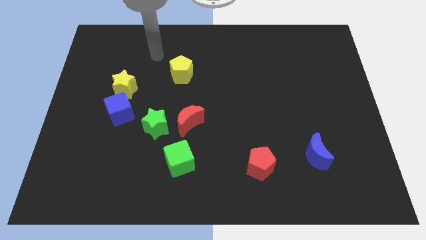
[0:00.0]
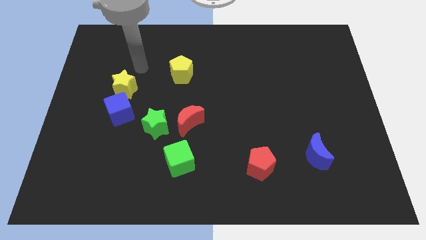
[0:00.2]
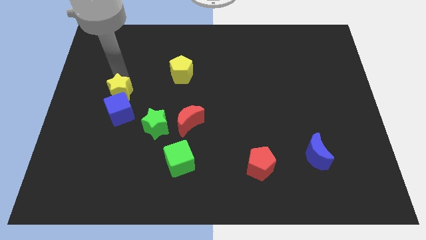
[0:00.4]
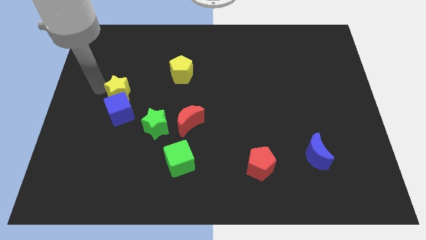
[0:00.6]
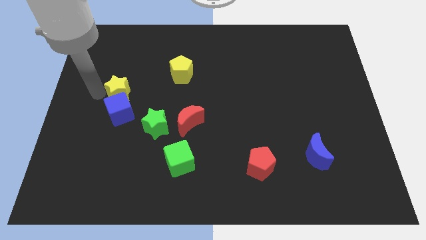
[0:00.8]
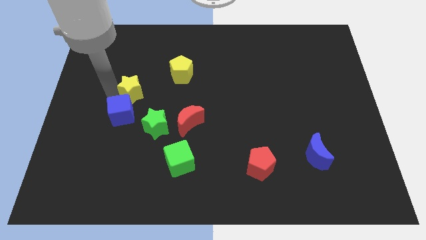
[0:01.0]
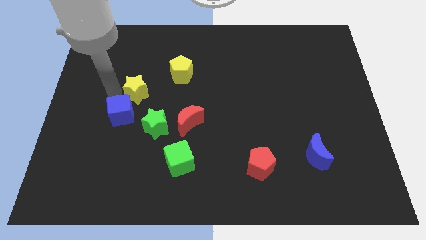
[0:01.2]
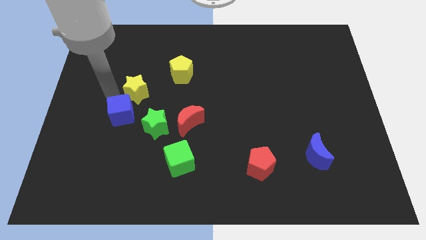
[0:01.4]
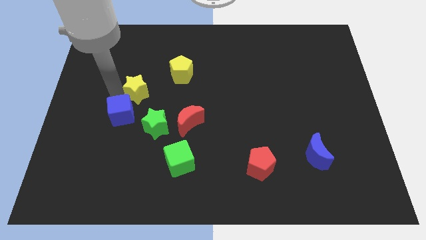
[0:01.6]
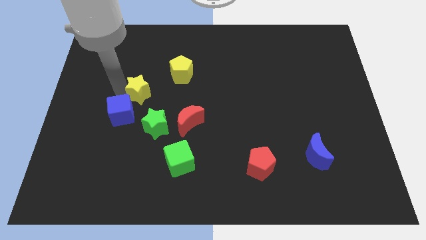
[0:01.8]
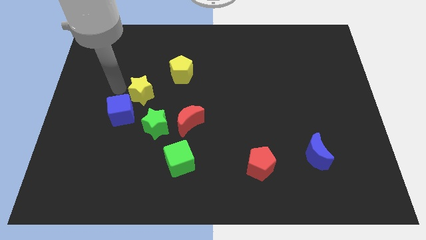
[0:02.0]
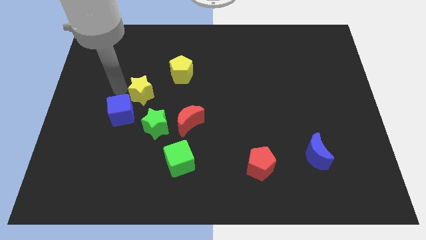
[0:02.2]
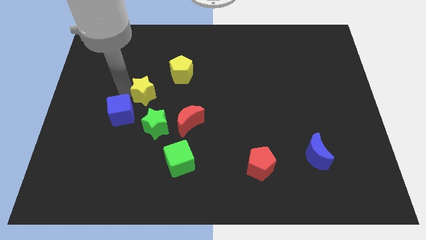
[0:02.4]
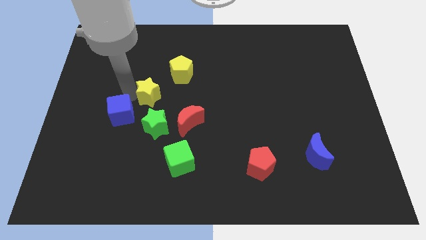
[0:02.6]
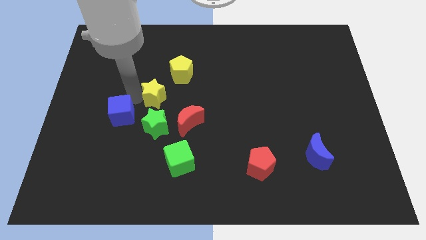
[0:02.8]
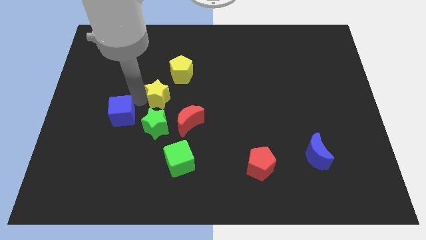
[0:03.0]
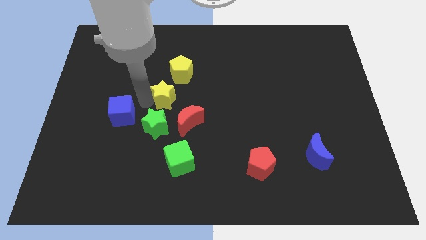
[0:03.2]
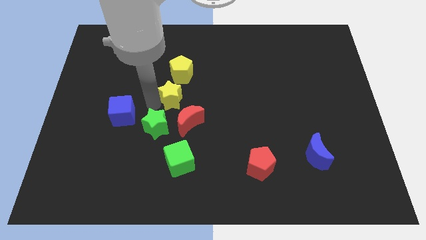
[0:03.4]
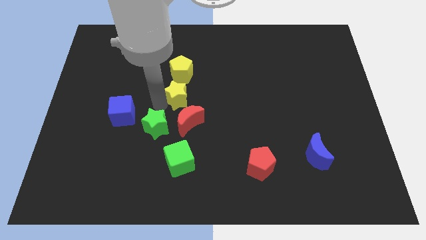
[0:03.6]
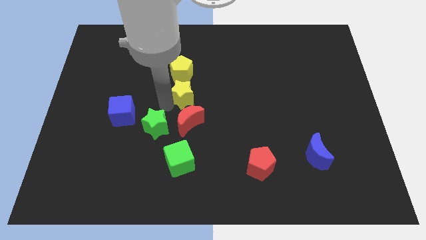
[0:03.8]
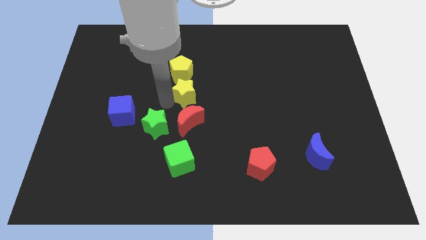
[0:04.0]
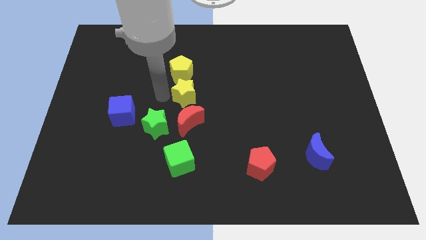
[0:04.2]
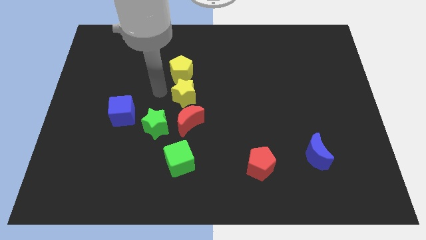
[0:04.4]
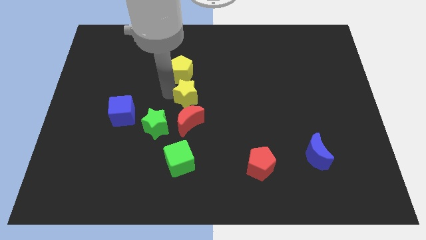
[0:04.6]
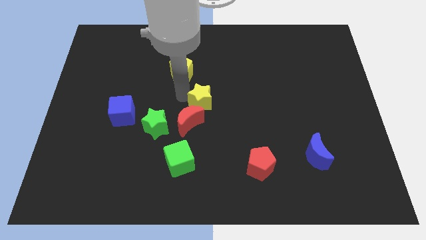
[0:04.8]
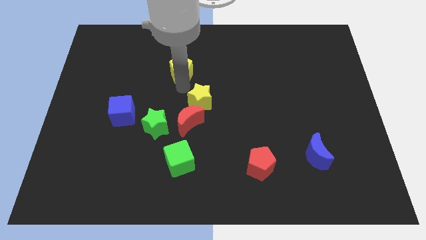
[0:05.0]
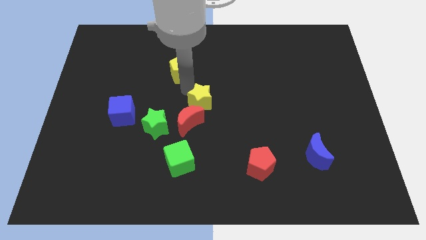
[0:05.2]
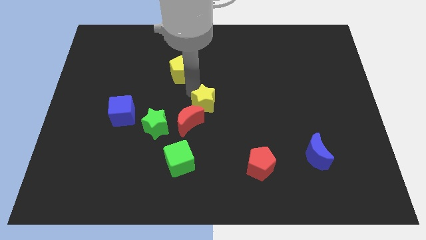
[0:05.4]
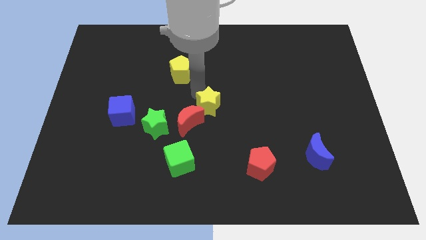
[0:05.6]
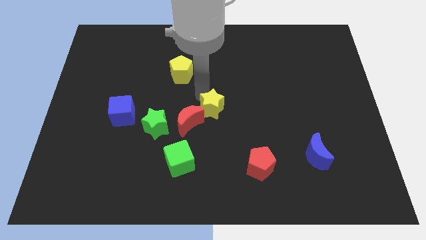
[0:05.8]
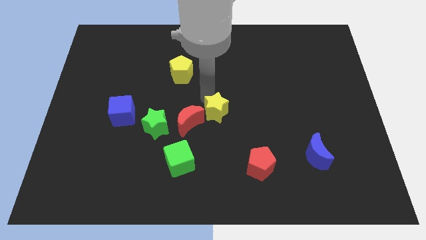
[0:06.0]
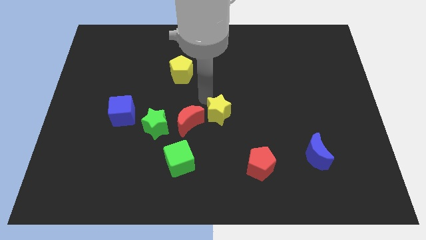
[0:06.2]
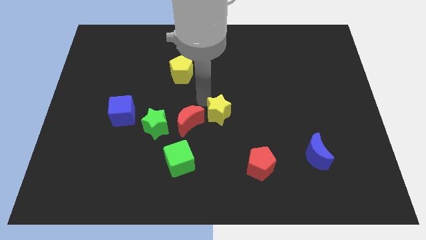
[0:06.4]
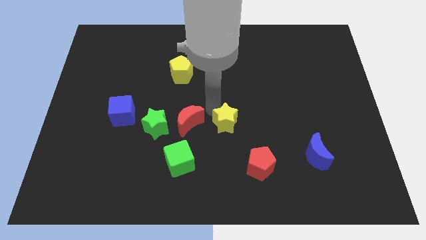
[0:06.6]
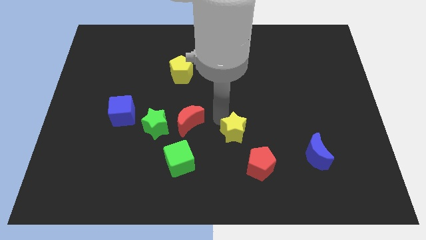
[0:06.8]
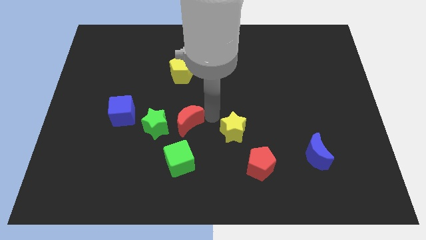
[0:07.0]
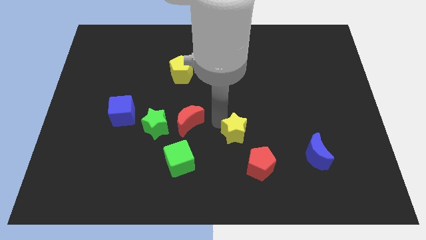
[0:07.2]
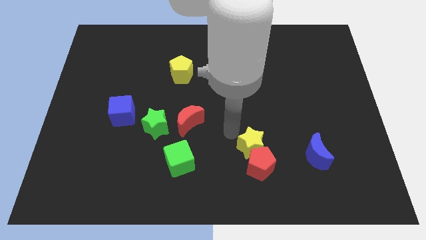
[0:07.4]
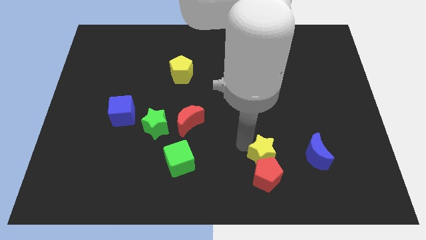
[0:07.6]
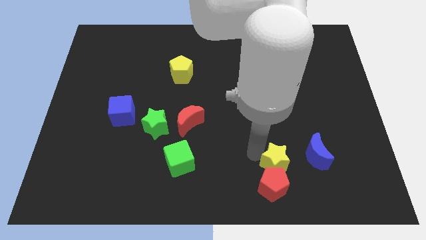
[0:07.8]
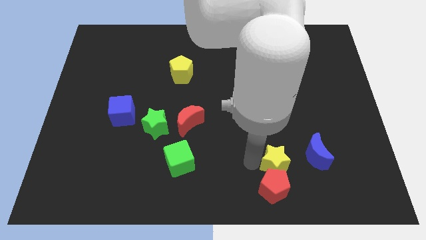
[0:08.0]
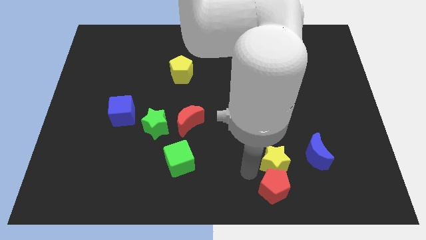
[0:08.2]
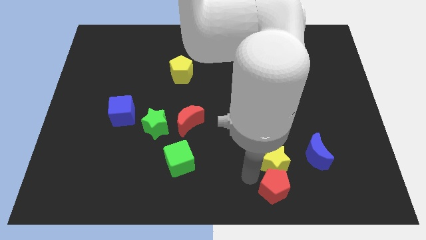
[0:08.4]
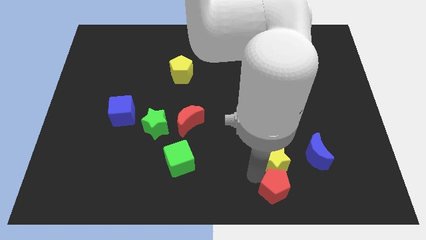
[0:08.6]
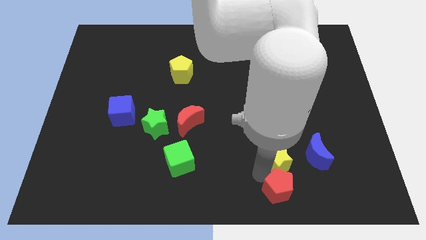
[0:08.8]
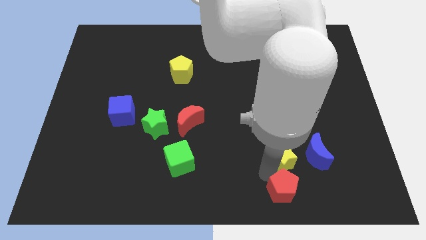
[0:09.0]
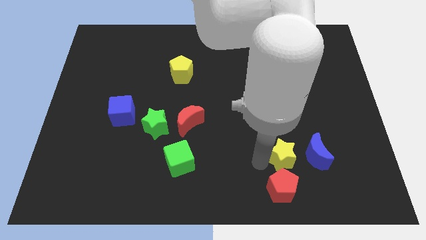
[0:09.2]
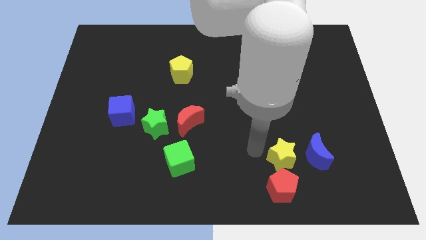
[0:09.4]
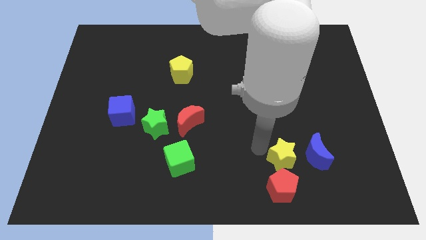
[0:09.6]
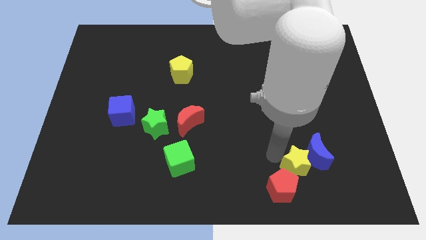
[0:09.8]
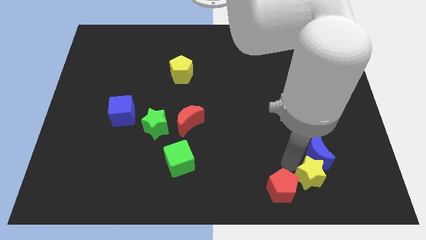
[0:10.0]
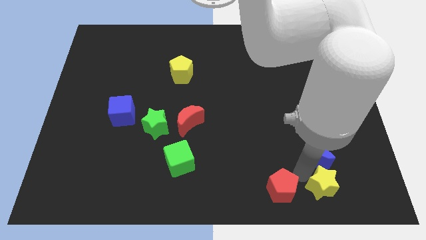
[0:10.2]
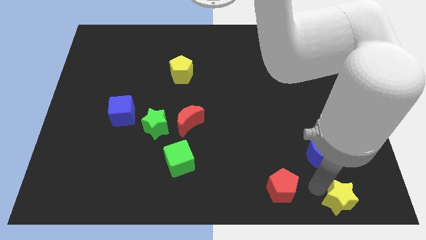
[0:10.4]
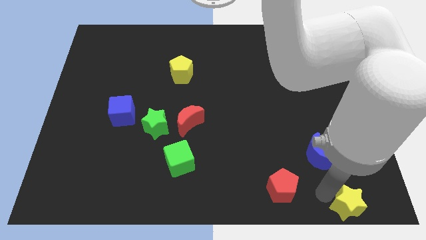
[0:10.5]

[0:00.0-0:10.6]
put the yellow star to the bottom right of the board
